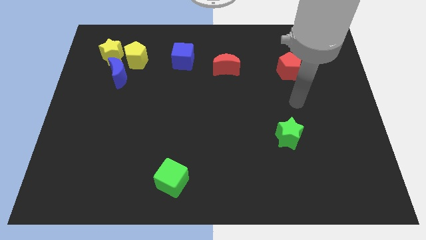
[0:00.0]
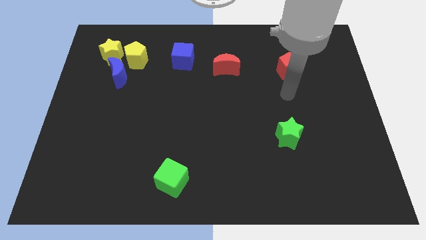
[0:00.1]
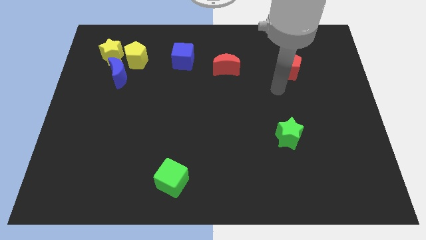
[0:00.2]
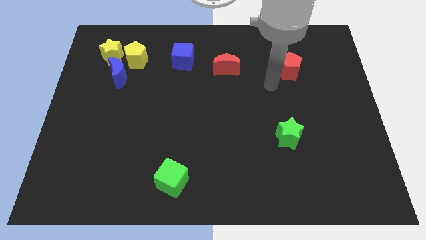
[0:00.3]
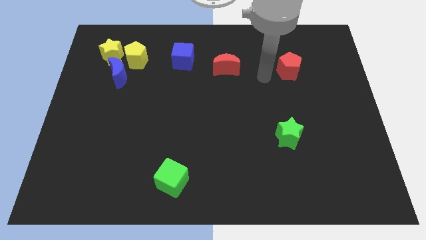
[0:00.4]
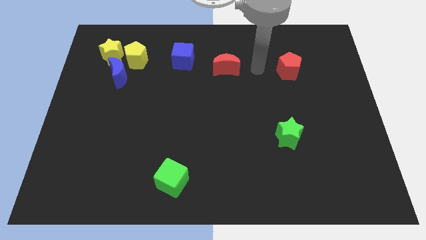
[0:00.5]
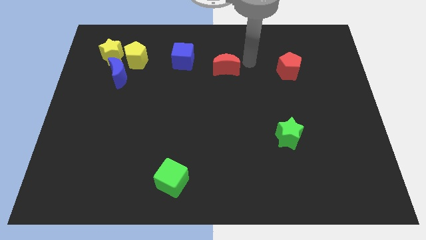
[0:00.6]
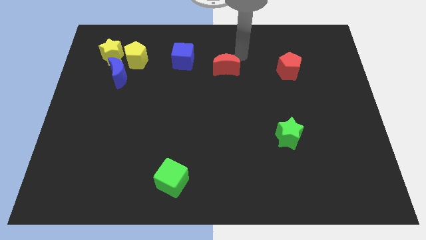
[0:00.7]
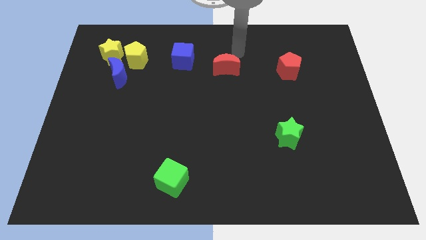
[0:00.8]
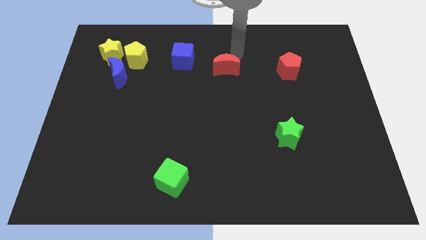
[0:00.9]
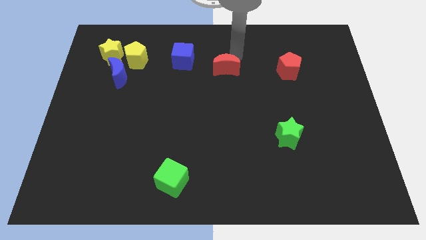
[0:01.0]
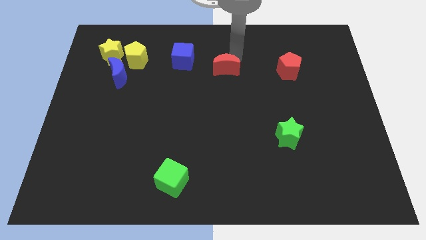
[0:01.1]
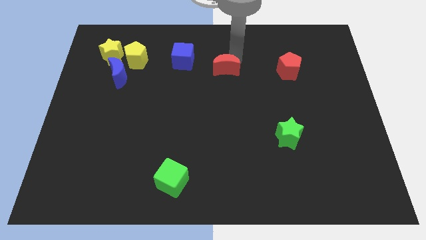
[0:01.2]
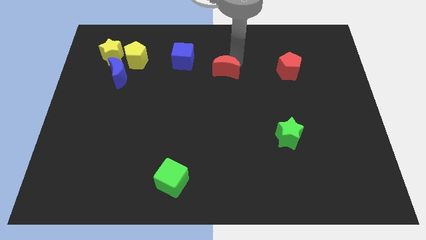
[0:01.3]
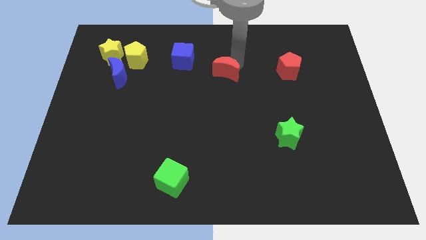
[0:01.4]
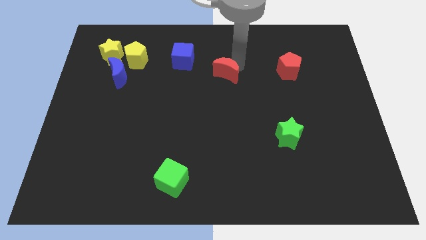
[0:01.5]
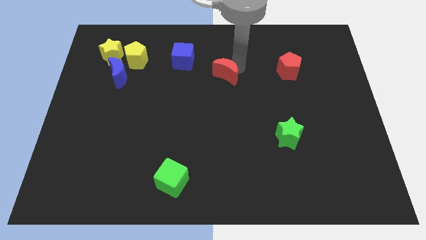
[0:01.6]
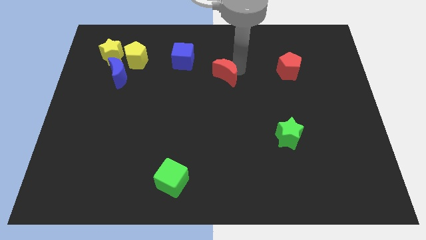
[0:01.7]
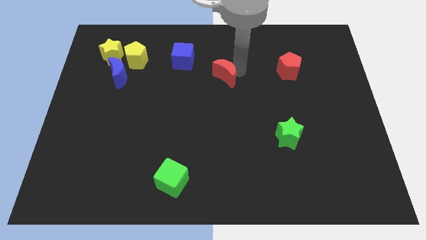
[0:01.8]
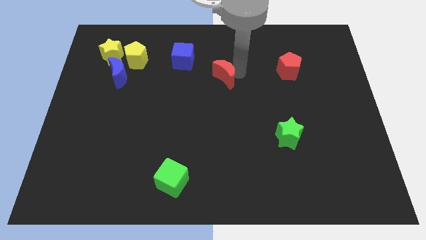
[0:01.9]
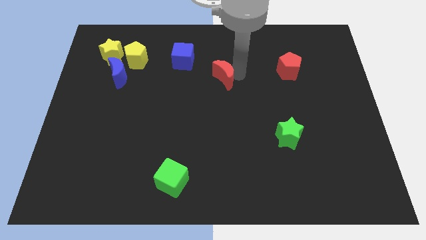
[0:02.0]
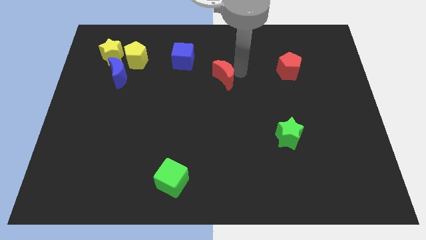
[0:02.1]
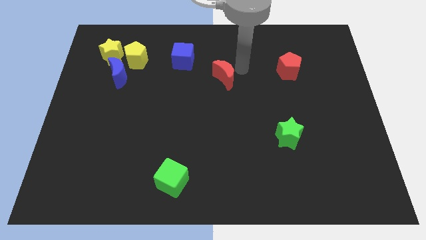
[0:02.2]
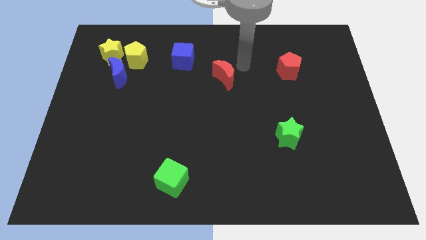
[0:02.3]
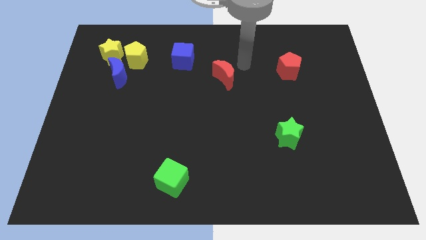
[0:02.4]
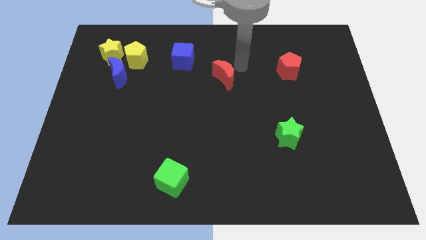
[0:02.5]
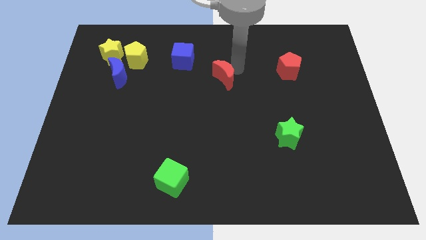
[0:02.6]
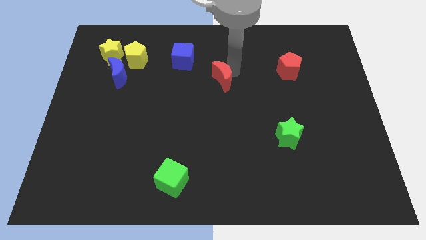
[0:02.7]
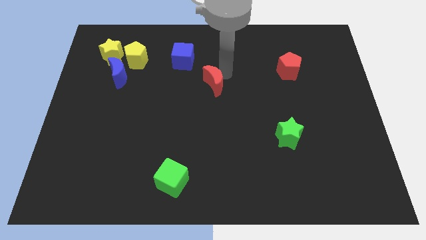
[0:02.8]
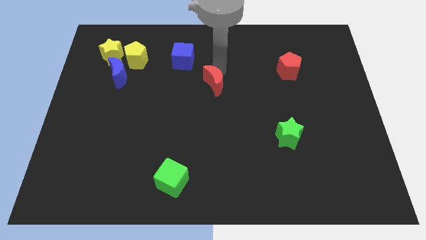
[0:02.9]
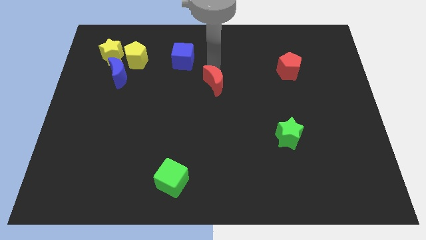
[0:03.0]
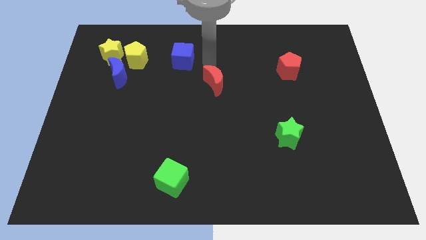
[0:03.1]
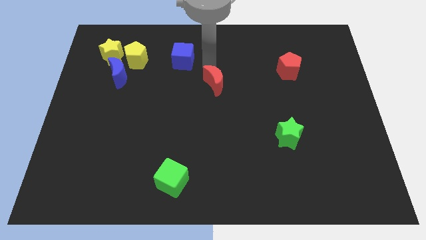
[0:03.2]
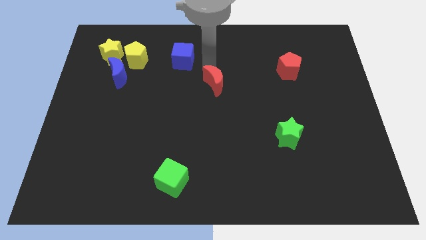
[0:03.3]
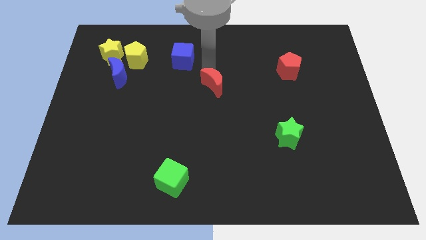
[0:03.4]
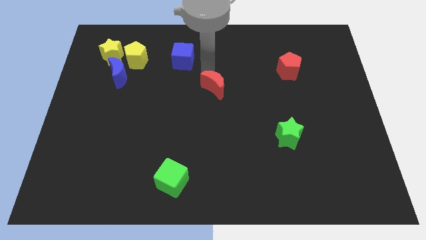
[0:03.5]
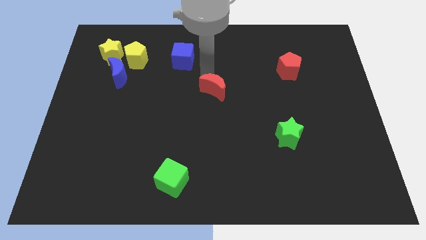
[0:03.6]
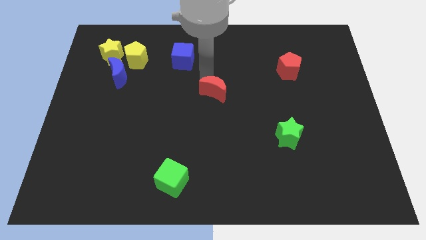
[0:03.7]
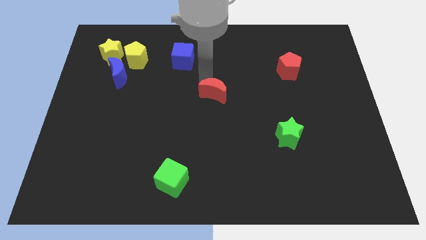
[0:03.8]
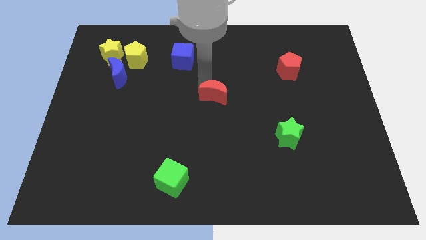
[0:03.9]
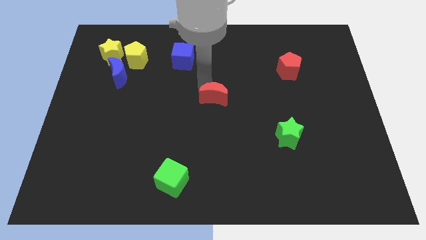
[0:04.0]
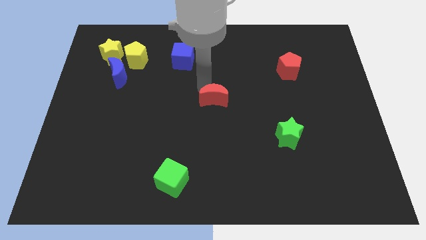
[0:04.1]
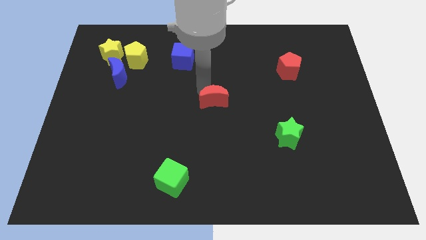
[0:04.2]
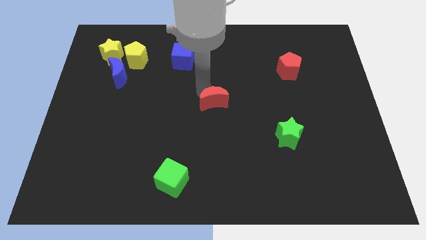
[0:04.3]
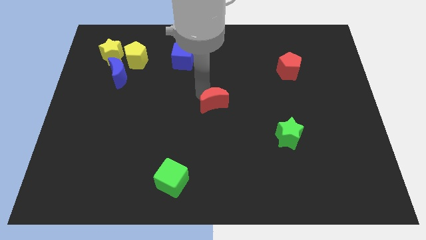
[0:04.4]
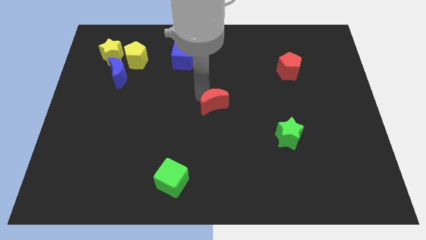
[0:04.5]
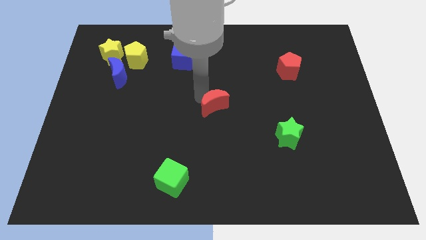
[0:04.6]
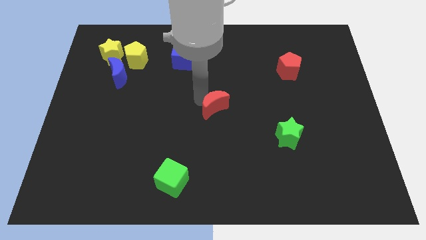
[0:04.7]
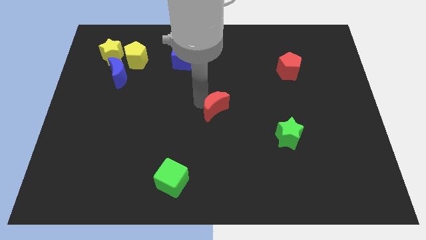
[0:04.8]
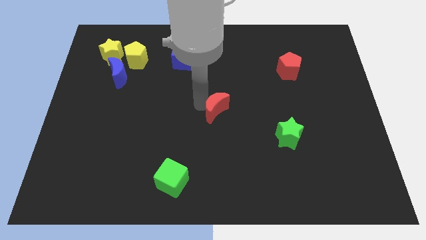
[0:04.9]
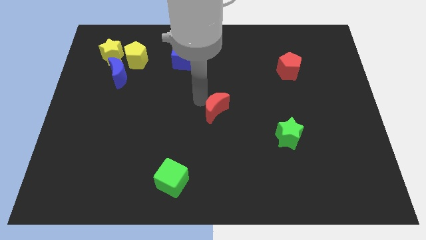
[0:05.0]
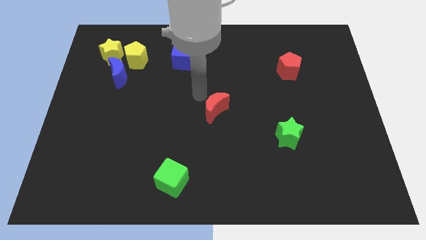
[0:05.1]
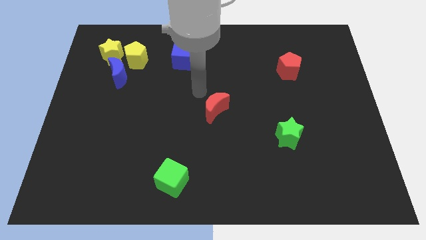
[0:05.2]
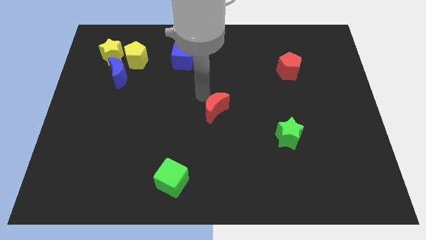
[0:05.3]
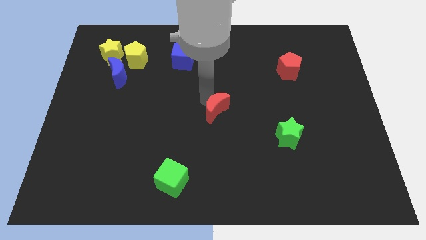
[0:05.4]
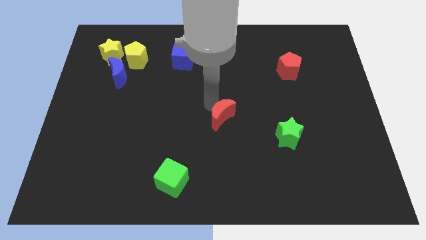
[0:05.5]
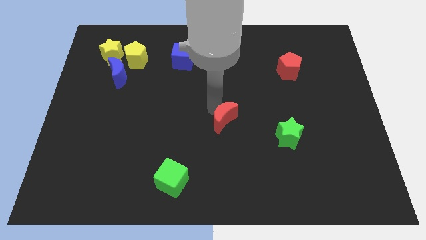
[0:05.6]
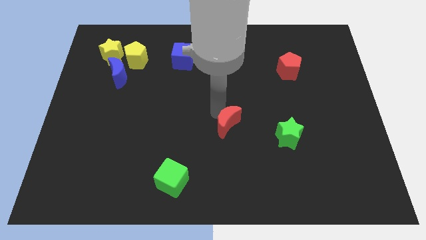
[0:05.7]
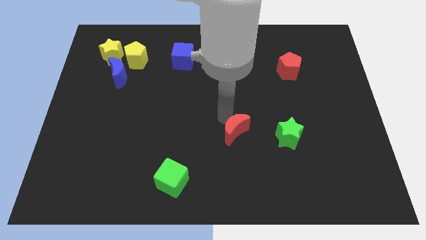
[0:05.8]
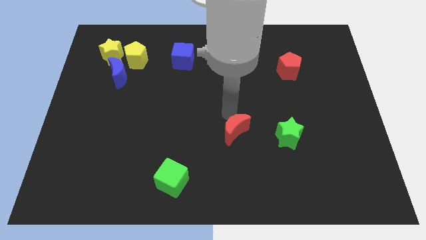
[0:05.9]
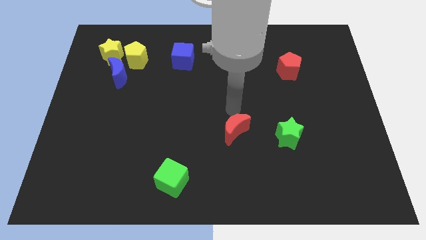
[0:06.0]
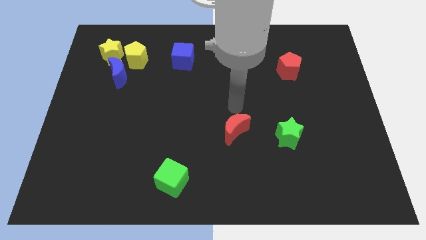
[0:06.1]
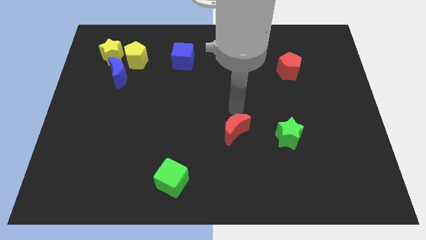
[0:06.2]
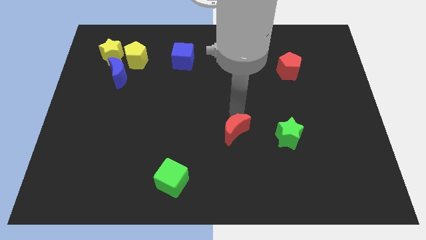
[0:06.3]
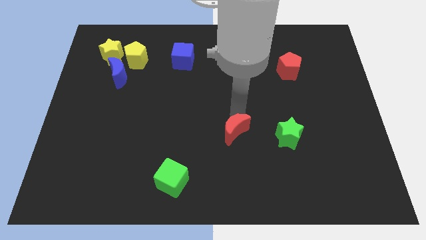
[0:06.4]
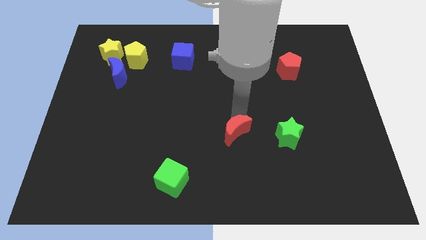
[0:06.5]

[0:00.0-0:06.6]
slide the red moon downwards

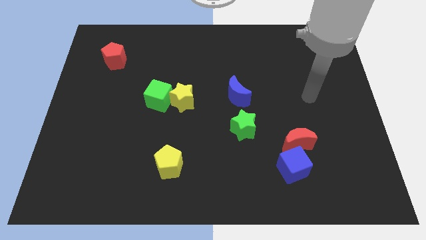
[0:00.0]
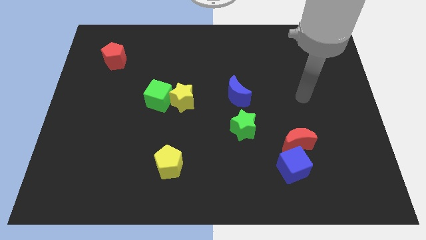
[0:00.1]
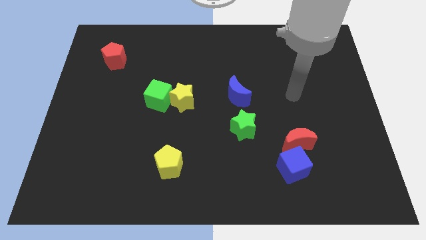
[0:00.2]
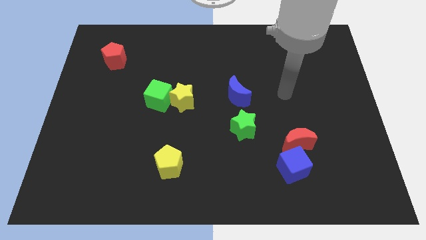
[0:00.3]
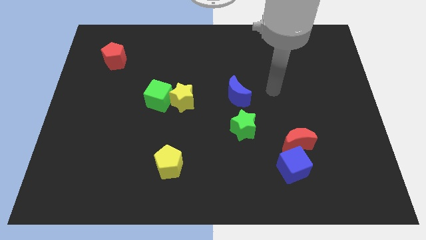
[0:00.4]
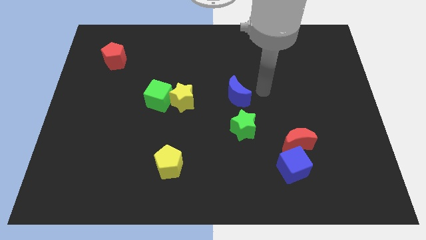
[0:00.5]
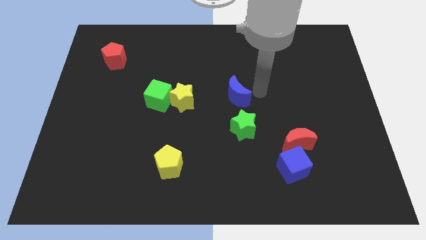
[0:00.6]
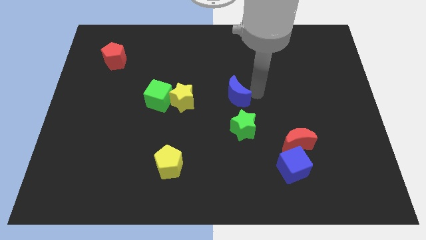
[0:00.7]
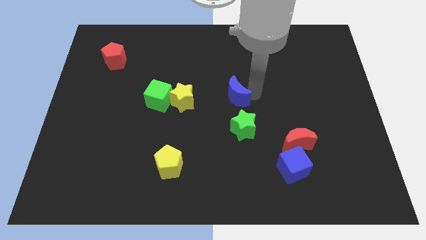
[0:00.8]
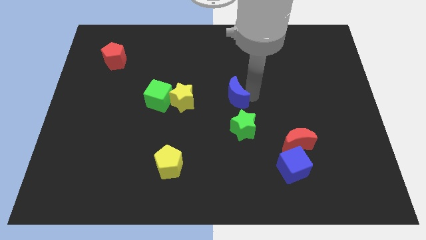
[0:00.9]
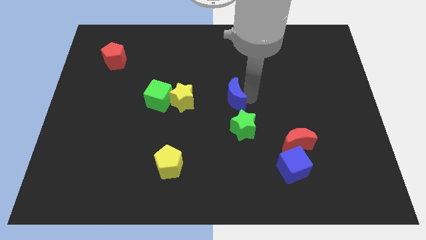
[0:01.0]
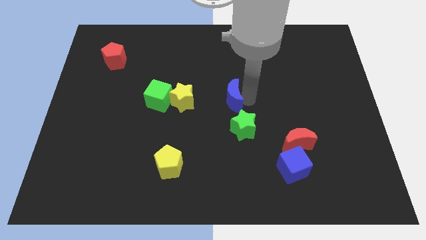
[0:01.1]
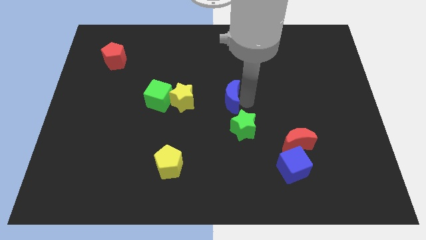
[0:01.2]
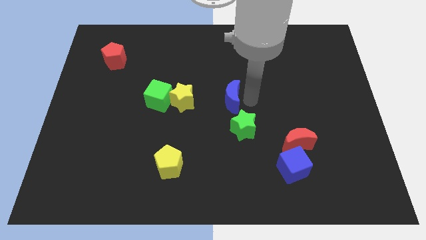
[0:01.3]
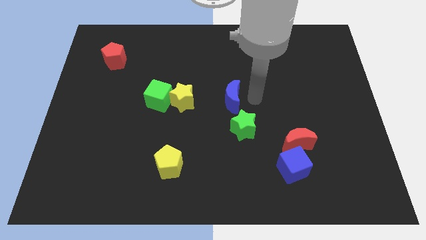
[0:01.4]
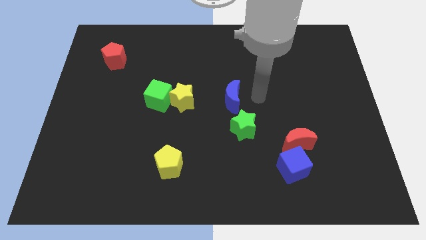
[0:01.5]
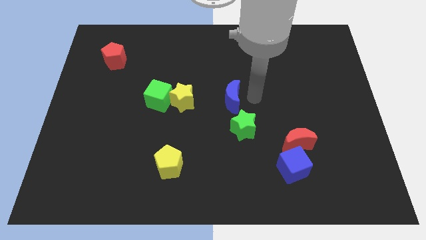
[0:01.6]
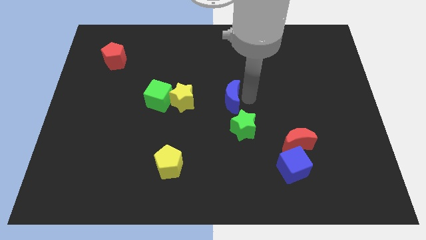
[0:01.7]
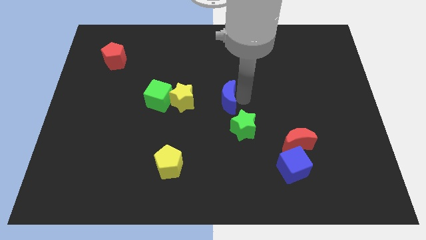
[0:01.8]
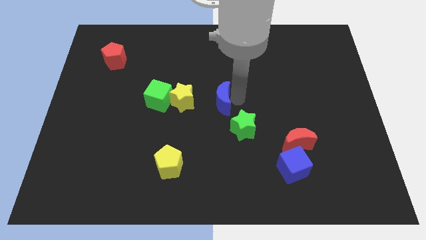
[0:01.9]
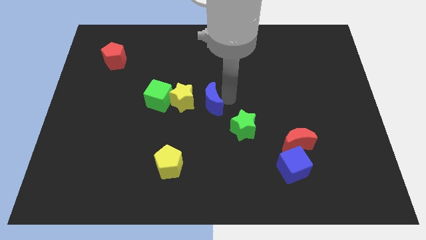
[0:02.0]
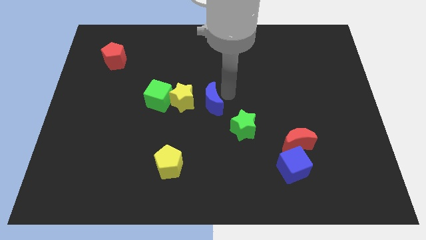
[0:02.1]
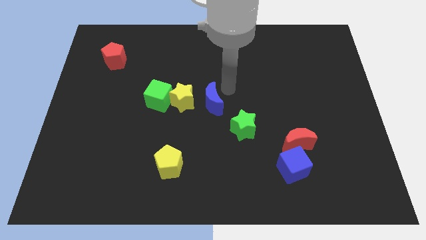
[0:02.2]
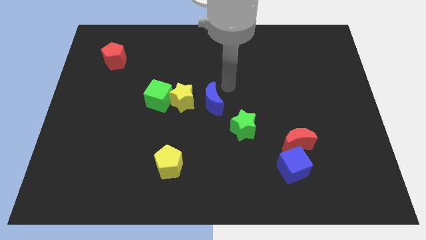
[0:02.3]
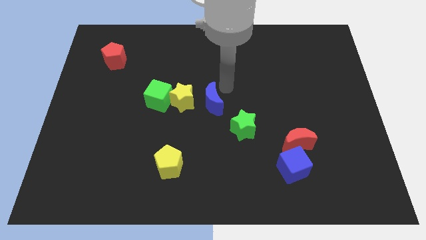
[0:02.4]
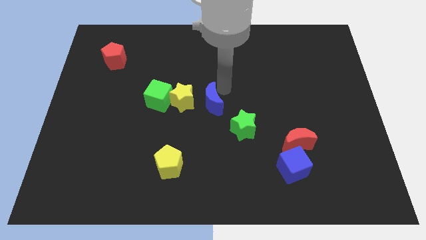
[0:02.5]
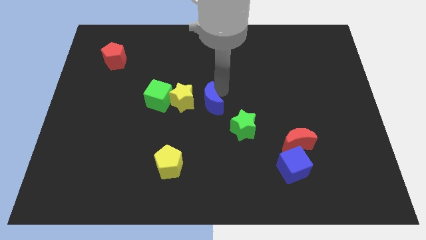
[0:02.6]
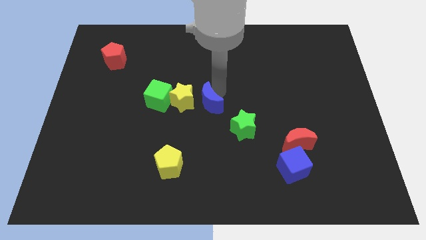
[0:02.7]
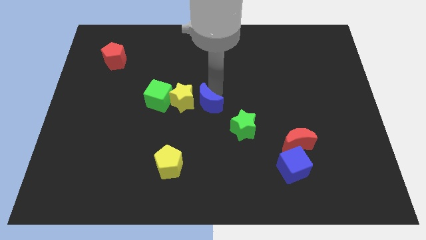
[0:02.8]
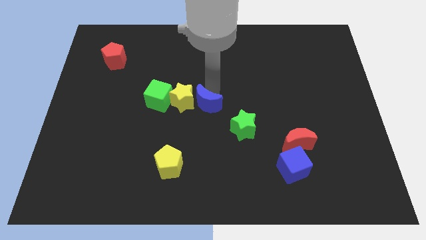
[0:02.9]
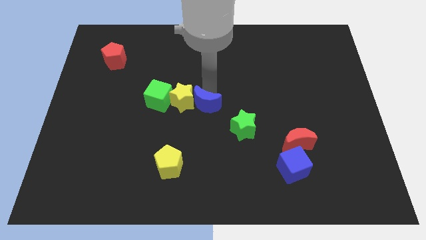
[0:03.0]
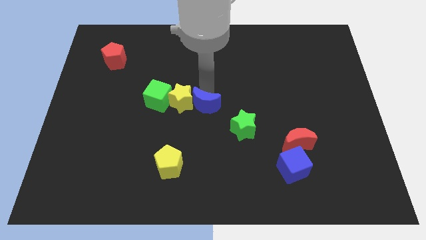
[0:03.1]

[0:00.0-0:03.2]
slightly move the blue moon diagonally downwards and left
